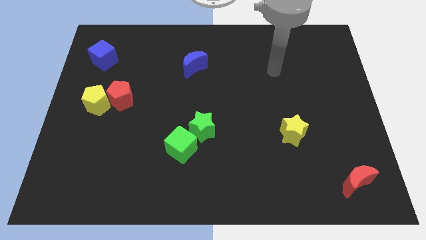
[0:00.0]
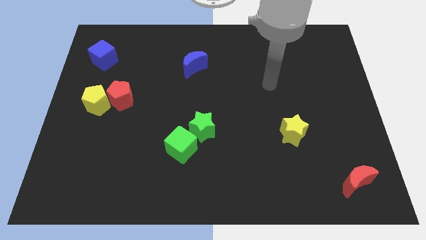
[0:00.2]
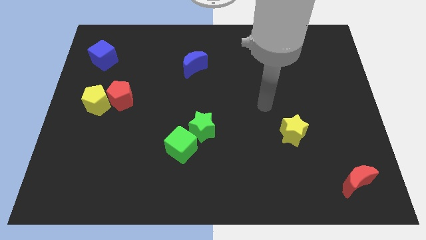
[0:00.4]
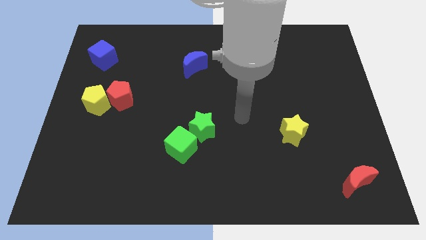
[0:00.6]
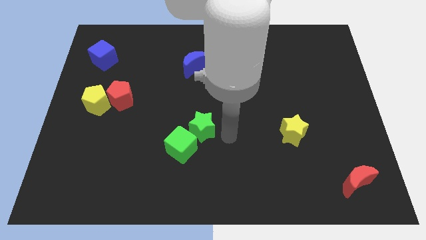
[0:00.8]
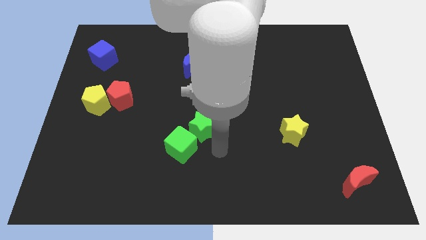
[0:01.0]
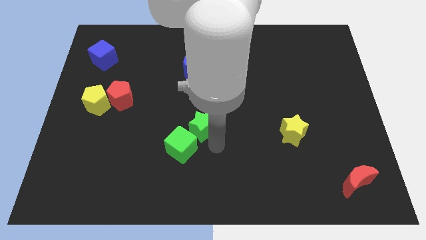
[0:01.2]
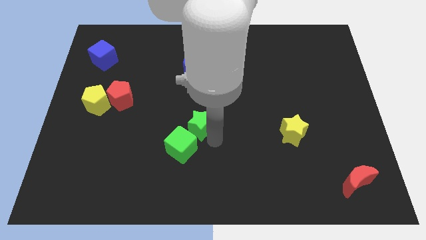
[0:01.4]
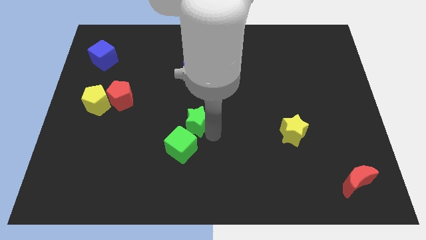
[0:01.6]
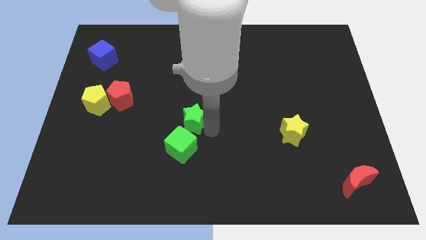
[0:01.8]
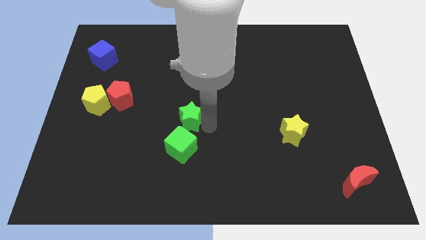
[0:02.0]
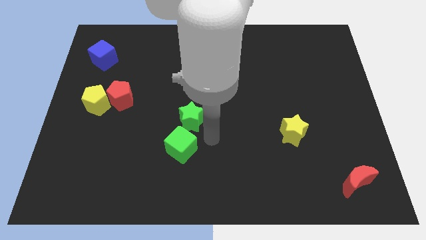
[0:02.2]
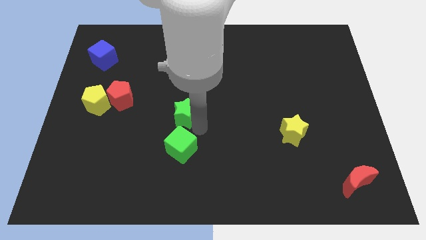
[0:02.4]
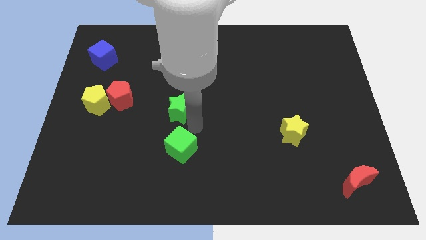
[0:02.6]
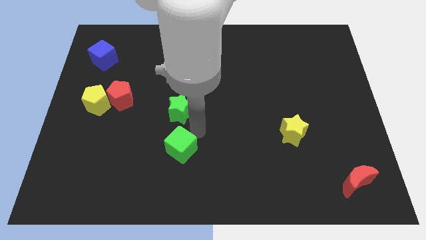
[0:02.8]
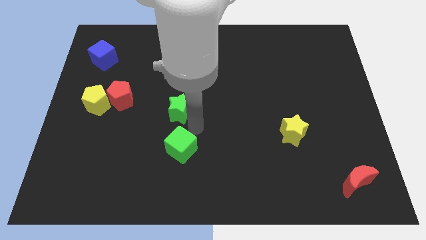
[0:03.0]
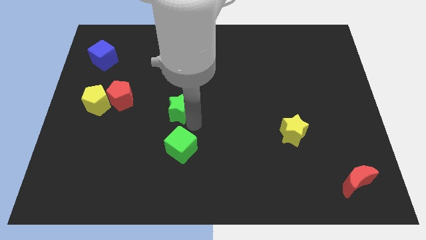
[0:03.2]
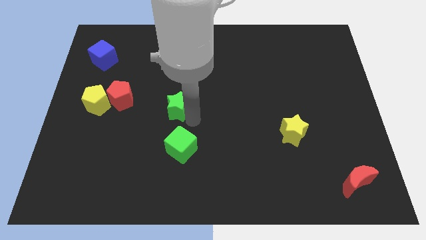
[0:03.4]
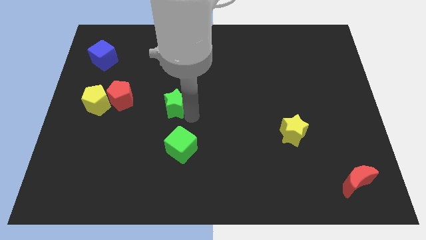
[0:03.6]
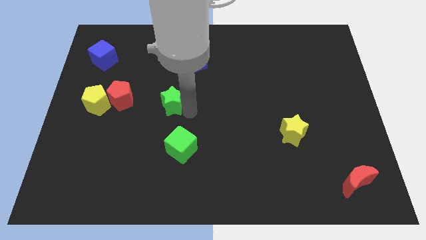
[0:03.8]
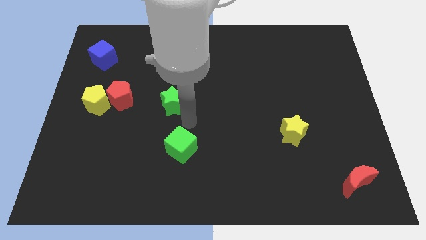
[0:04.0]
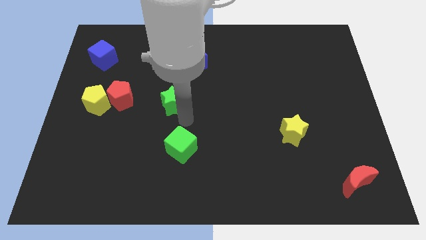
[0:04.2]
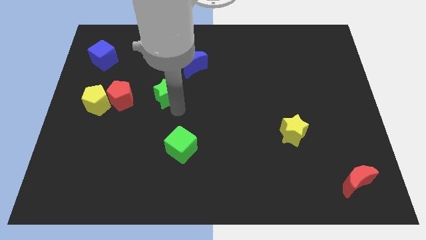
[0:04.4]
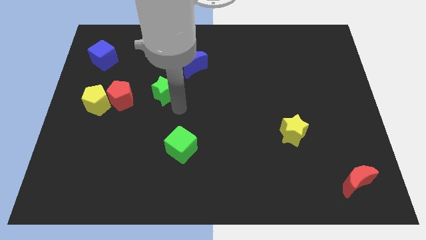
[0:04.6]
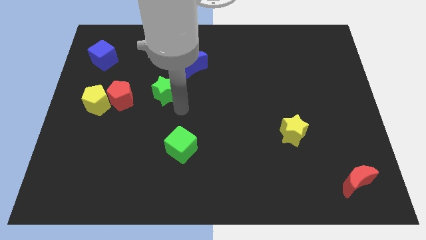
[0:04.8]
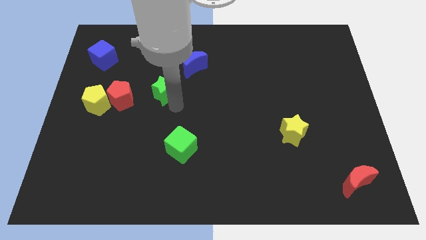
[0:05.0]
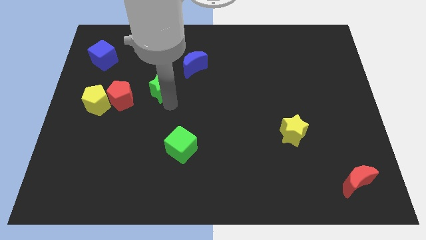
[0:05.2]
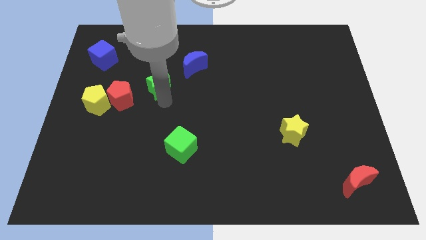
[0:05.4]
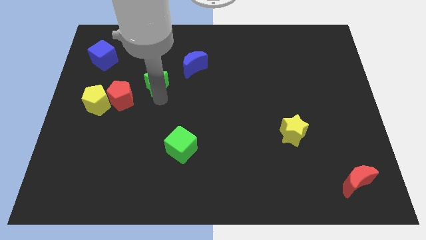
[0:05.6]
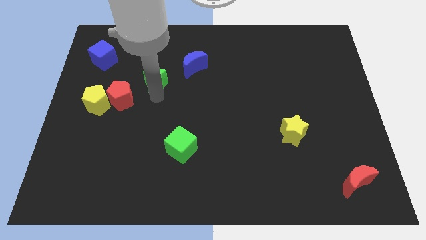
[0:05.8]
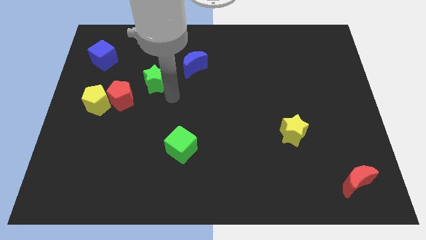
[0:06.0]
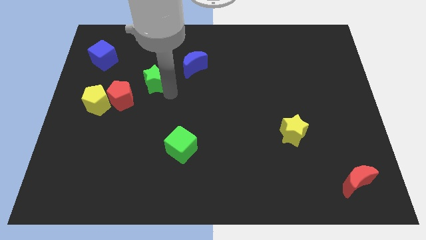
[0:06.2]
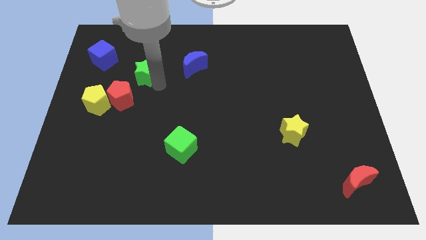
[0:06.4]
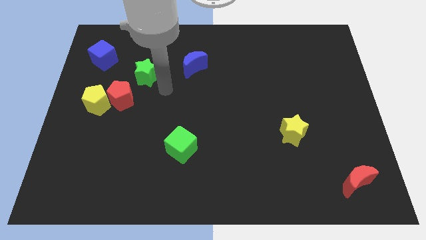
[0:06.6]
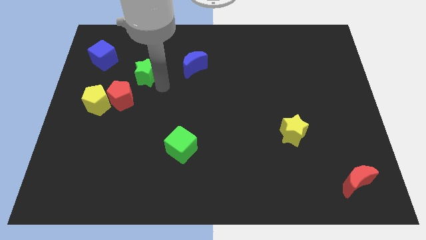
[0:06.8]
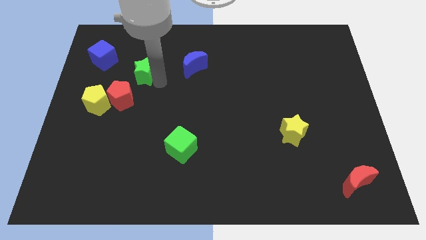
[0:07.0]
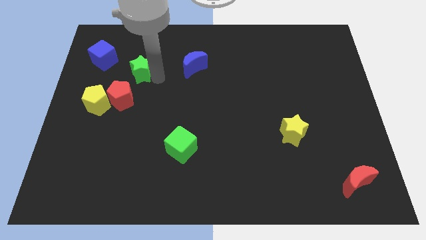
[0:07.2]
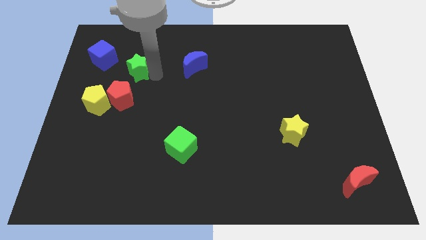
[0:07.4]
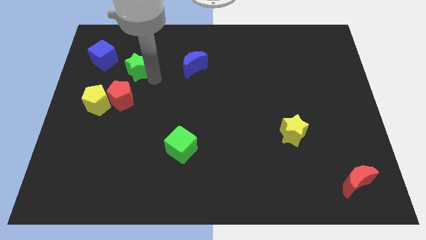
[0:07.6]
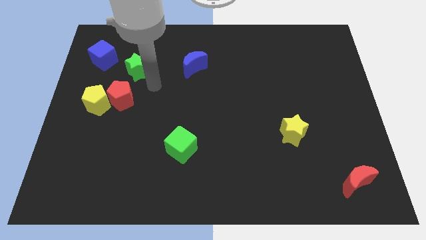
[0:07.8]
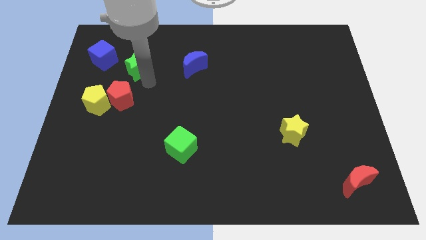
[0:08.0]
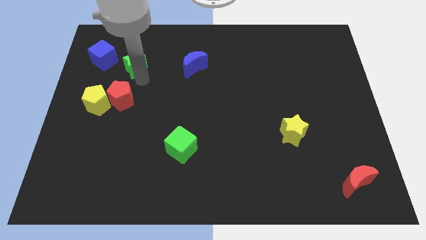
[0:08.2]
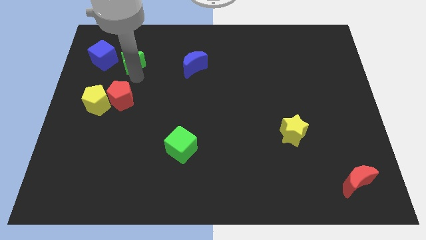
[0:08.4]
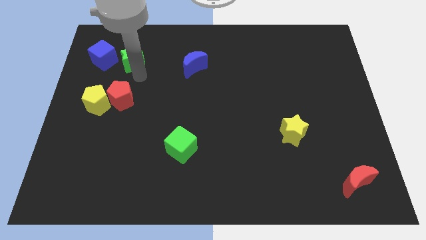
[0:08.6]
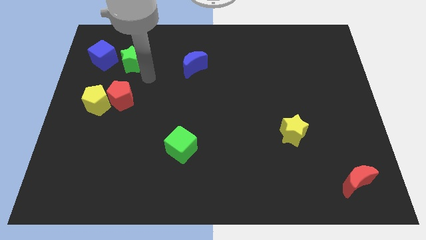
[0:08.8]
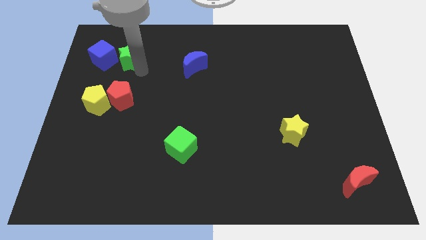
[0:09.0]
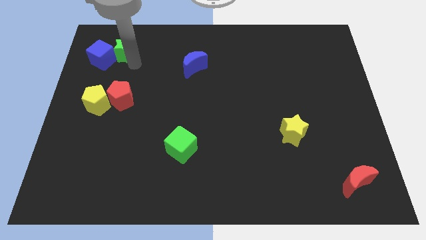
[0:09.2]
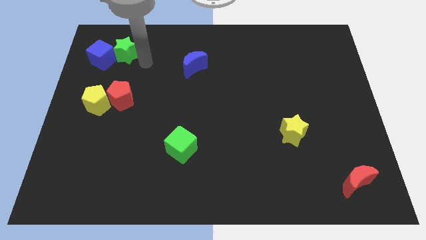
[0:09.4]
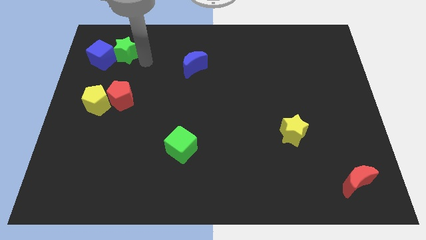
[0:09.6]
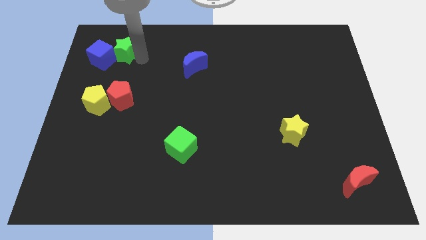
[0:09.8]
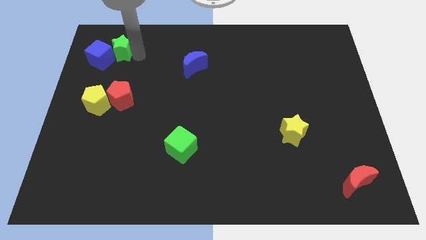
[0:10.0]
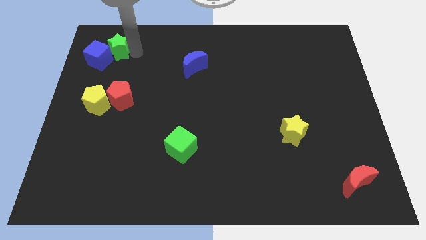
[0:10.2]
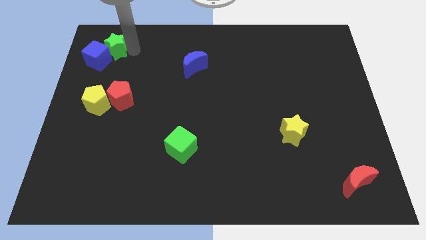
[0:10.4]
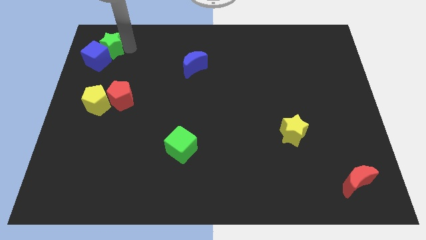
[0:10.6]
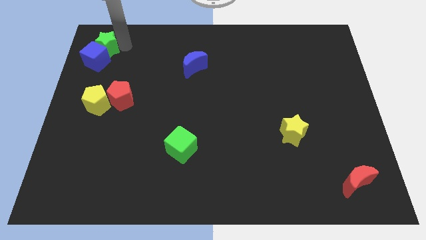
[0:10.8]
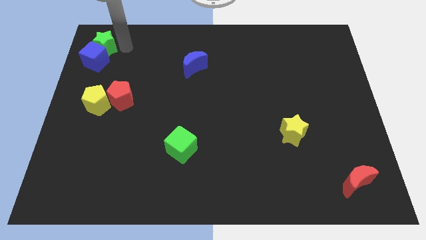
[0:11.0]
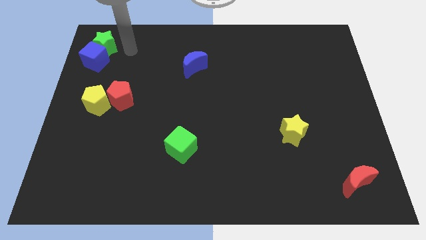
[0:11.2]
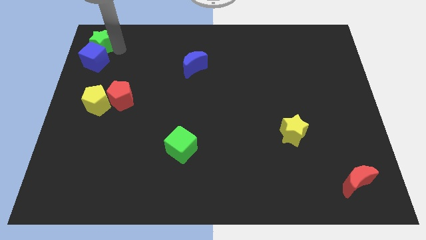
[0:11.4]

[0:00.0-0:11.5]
move the green star to the top left

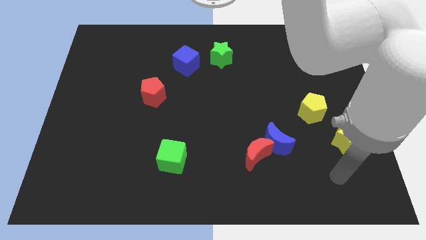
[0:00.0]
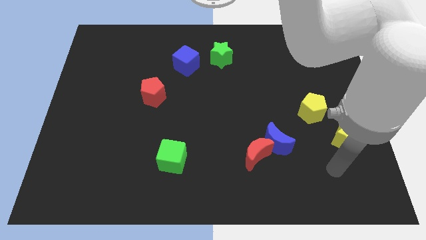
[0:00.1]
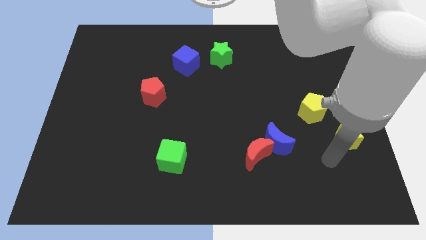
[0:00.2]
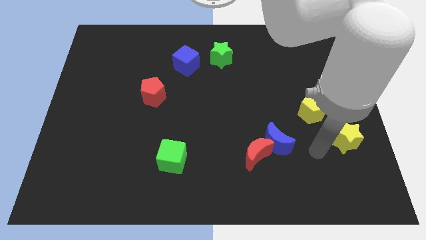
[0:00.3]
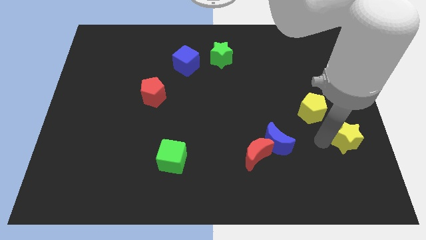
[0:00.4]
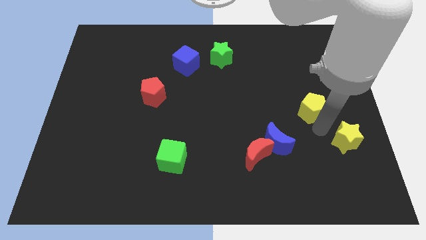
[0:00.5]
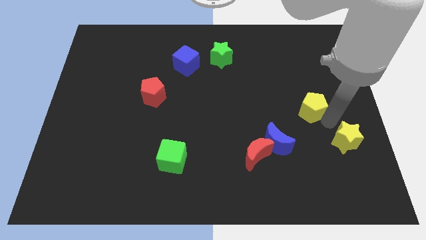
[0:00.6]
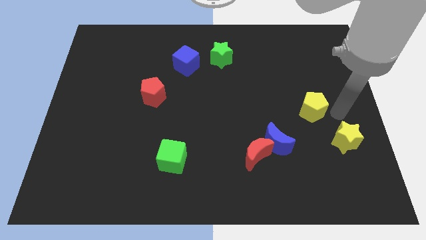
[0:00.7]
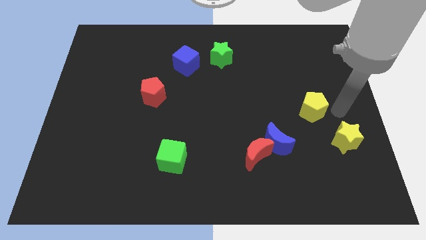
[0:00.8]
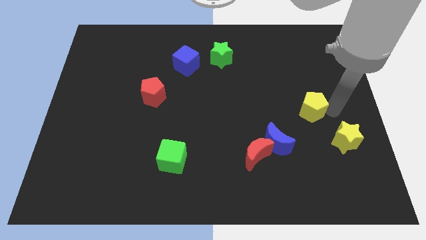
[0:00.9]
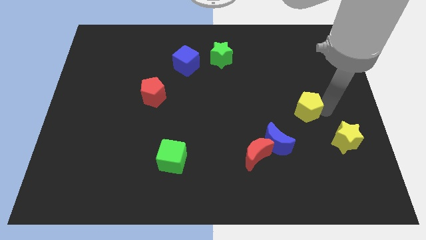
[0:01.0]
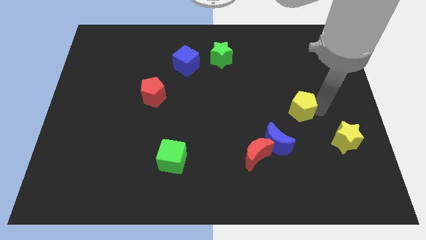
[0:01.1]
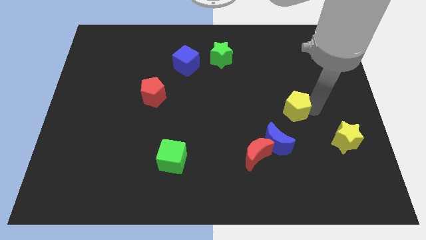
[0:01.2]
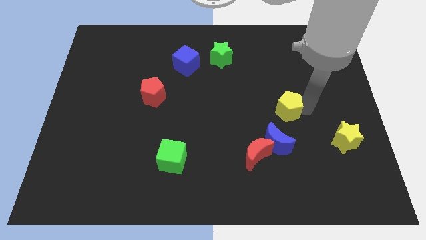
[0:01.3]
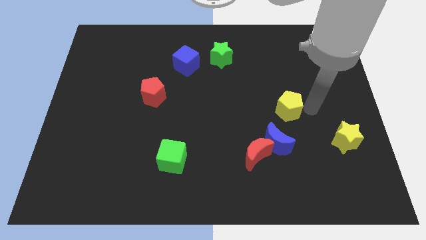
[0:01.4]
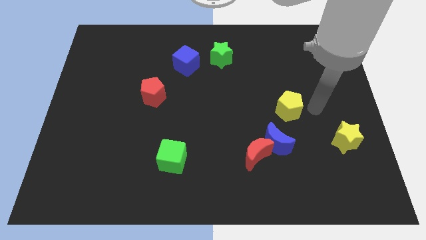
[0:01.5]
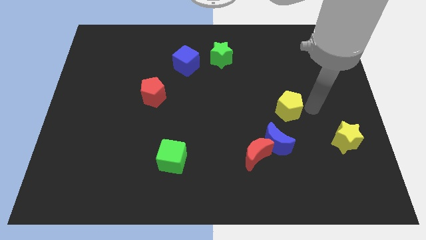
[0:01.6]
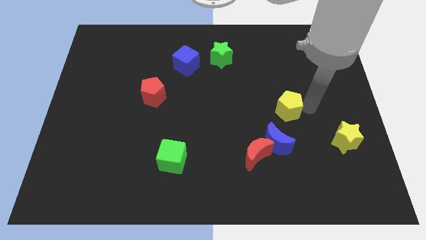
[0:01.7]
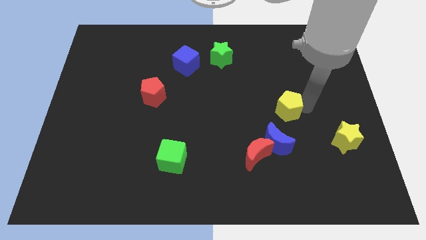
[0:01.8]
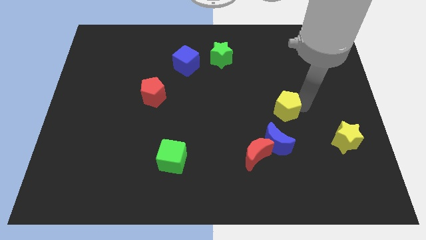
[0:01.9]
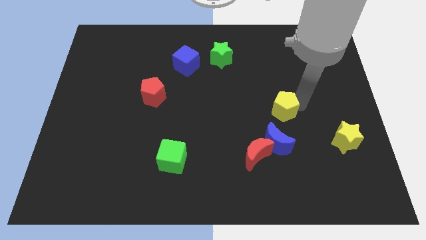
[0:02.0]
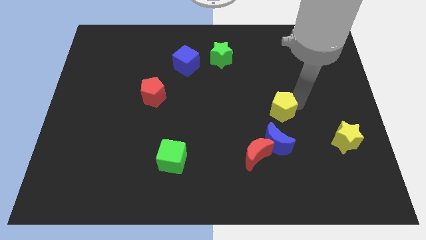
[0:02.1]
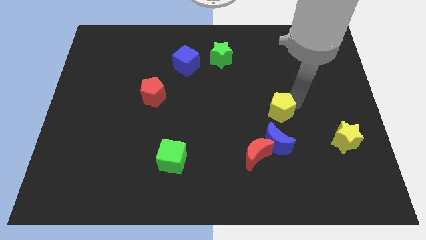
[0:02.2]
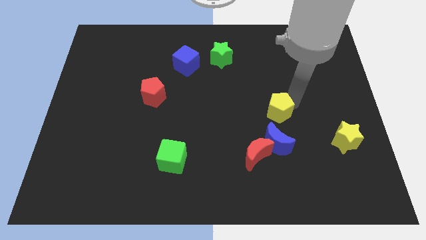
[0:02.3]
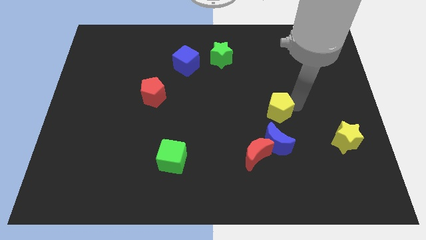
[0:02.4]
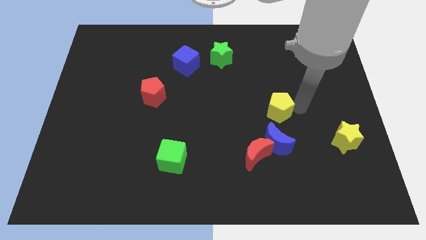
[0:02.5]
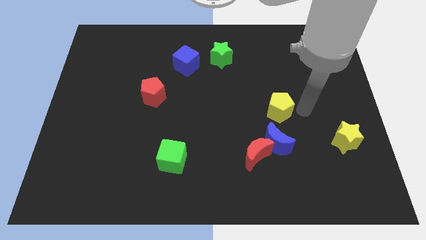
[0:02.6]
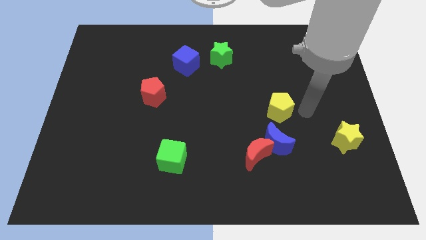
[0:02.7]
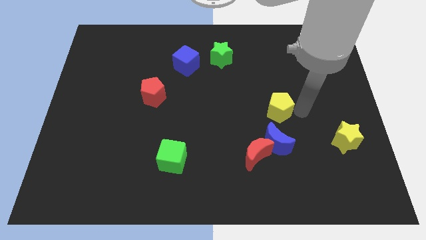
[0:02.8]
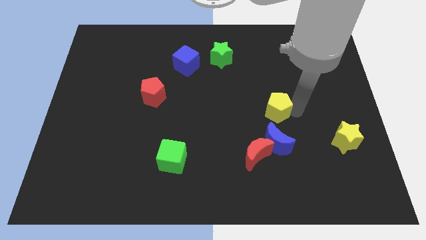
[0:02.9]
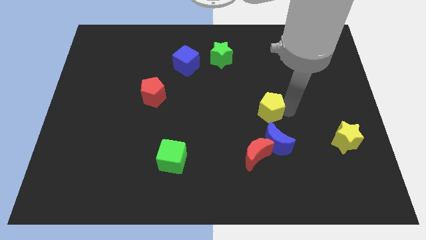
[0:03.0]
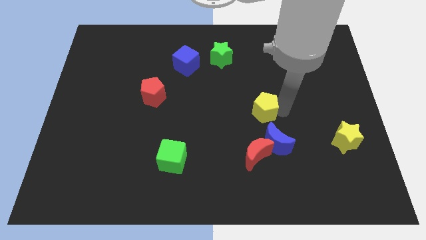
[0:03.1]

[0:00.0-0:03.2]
put the yellow pentagon to the center
